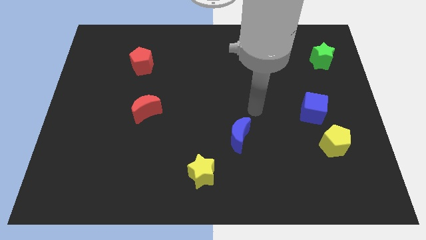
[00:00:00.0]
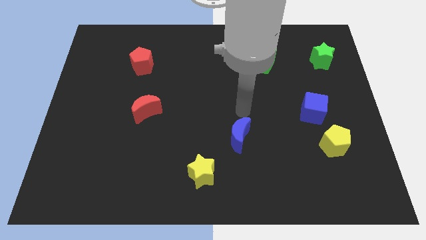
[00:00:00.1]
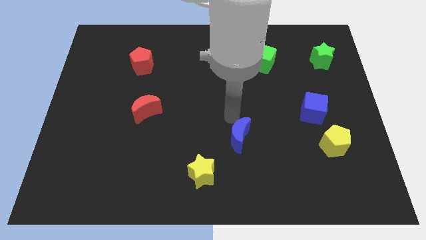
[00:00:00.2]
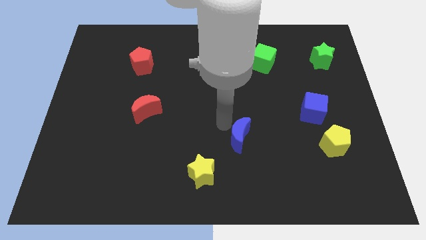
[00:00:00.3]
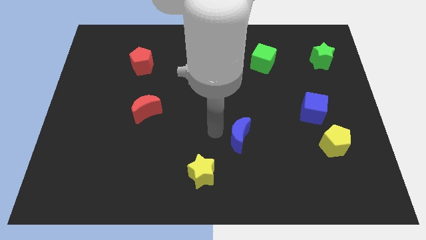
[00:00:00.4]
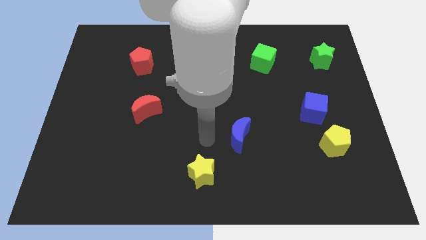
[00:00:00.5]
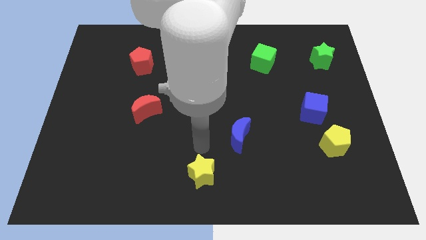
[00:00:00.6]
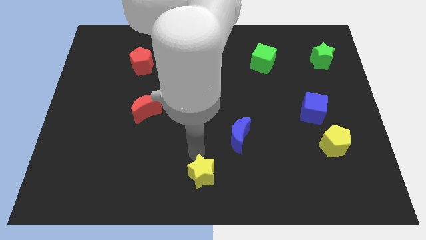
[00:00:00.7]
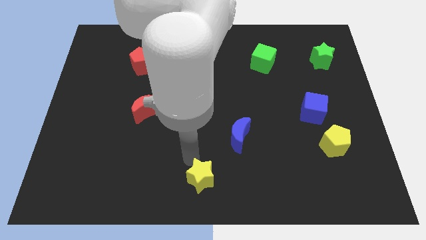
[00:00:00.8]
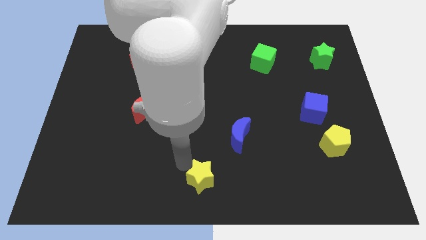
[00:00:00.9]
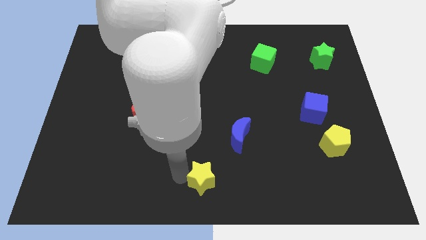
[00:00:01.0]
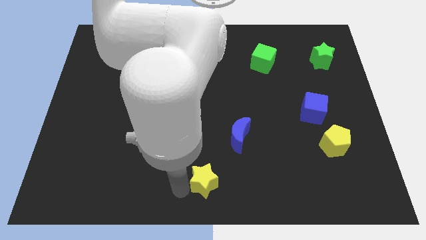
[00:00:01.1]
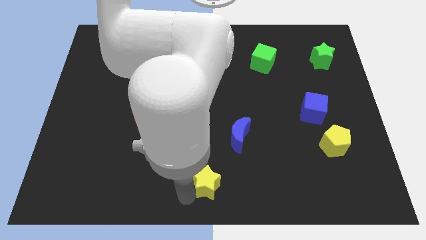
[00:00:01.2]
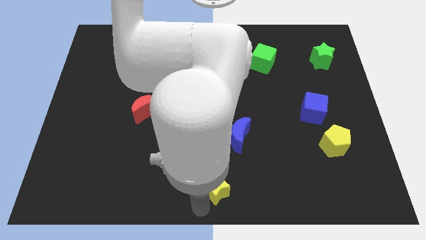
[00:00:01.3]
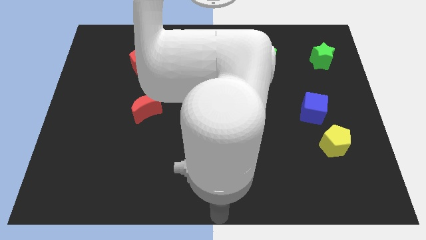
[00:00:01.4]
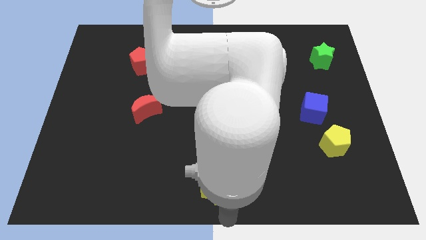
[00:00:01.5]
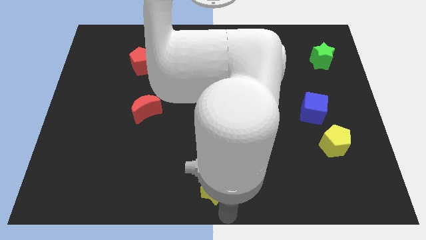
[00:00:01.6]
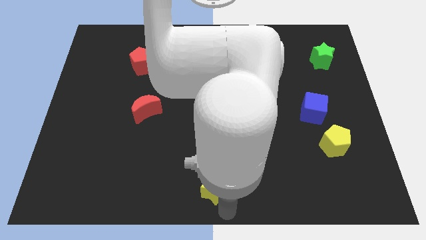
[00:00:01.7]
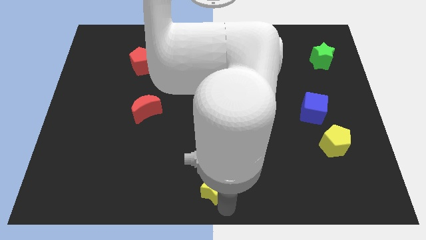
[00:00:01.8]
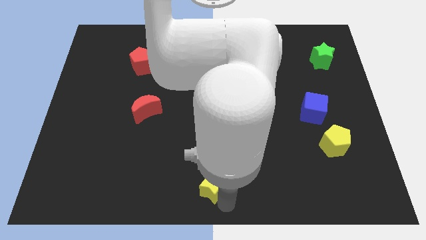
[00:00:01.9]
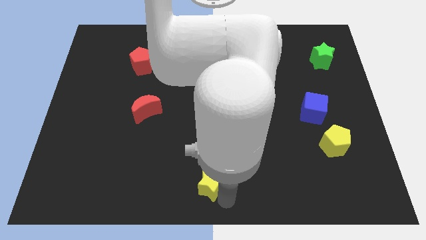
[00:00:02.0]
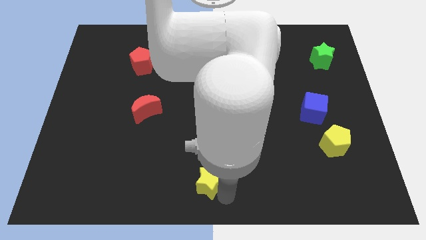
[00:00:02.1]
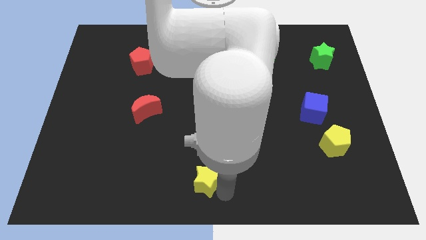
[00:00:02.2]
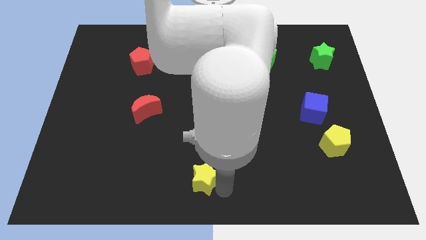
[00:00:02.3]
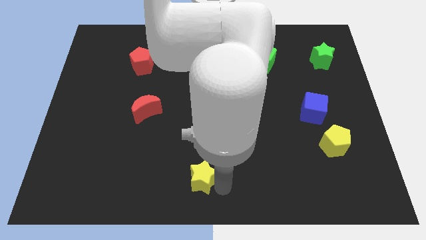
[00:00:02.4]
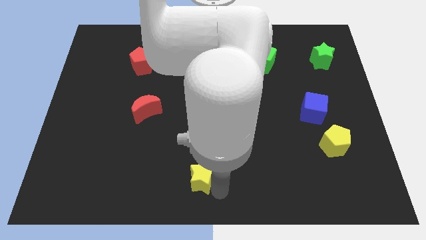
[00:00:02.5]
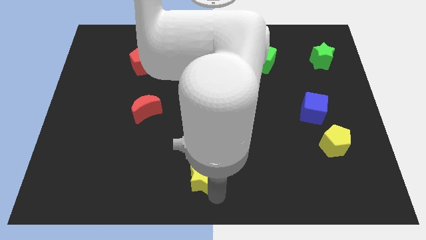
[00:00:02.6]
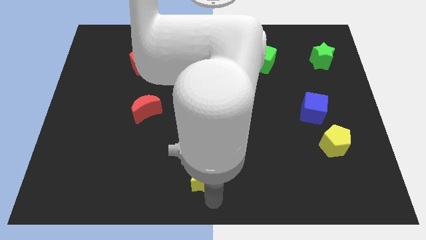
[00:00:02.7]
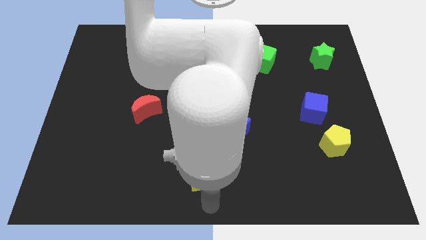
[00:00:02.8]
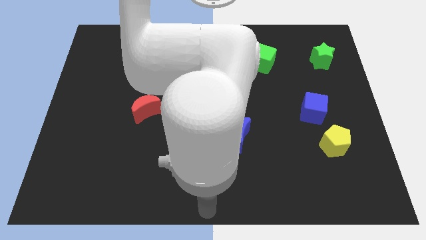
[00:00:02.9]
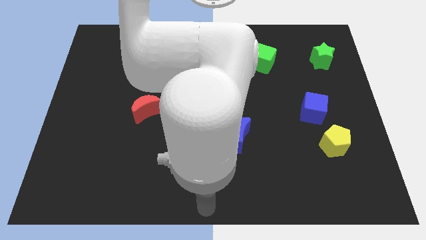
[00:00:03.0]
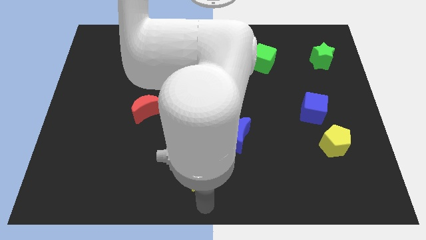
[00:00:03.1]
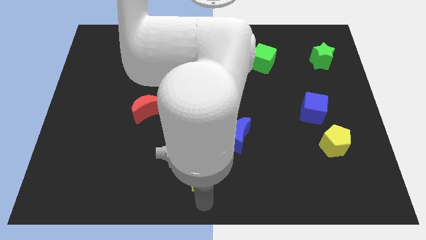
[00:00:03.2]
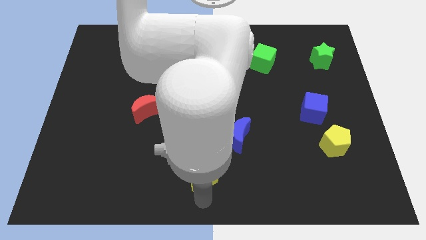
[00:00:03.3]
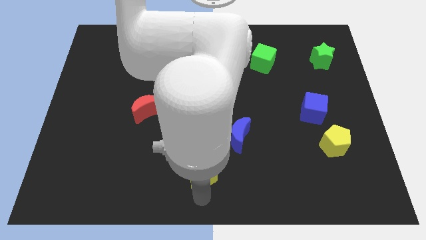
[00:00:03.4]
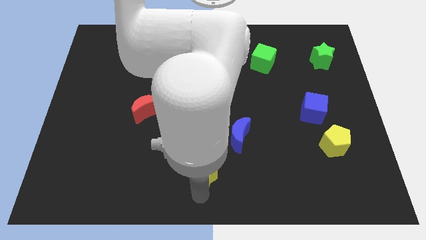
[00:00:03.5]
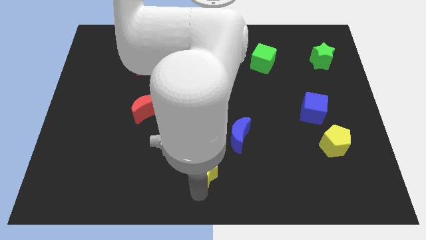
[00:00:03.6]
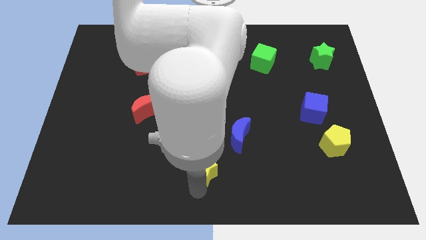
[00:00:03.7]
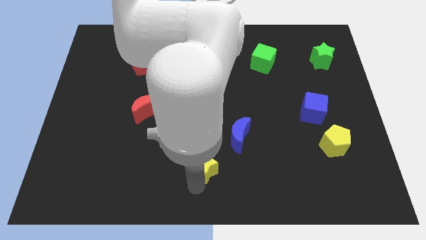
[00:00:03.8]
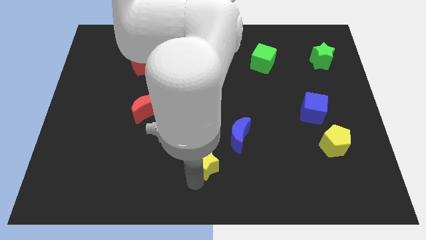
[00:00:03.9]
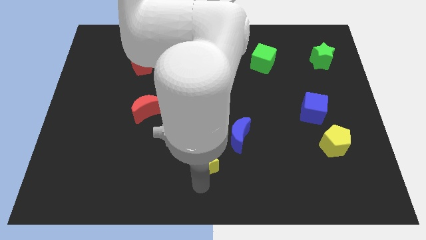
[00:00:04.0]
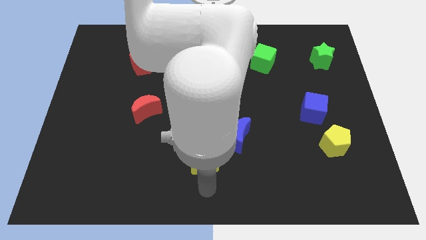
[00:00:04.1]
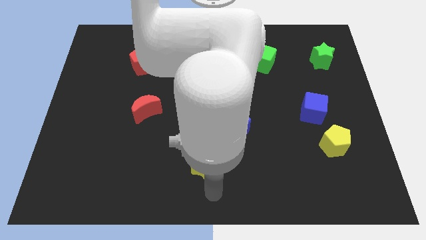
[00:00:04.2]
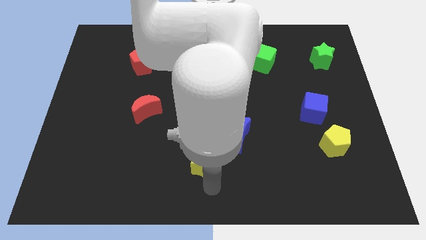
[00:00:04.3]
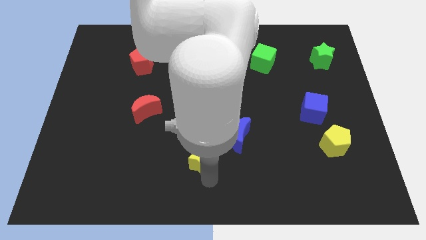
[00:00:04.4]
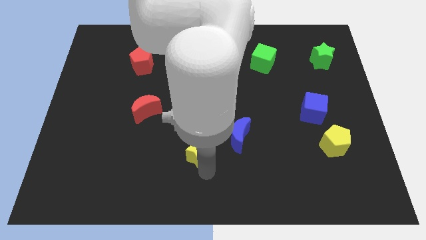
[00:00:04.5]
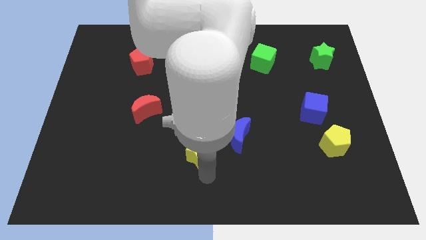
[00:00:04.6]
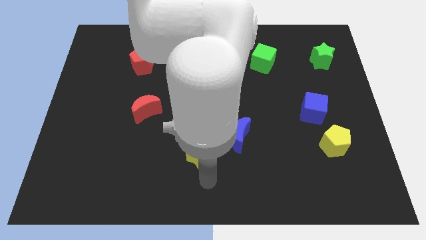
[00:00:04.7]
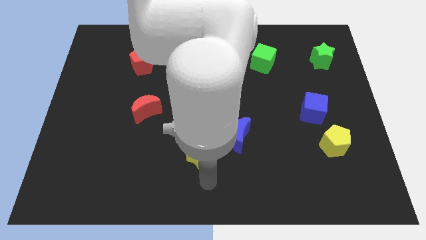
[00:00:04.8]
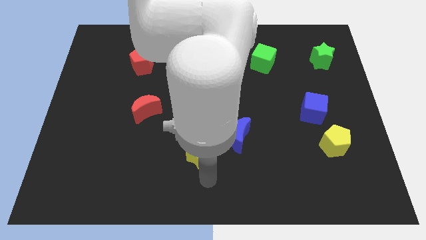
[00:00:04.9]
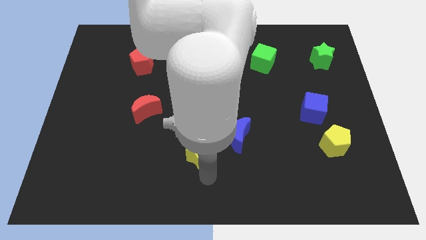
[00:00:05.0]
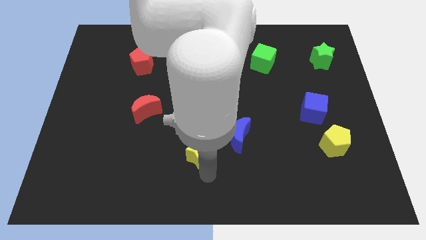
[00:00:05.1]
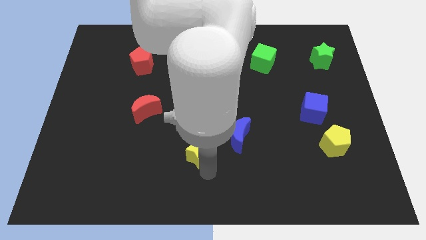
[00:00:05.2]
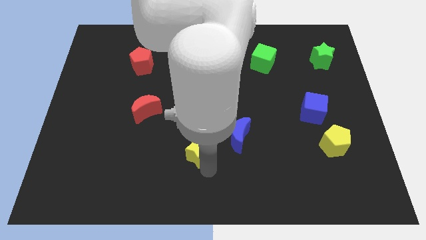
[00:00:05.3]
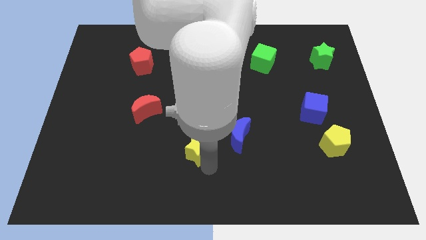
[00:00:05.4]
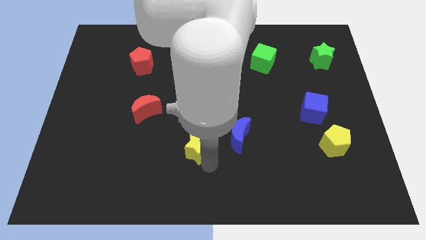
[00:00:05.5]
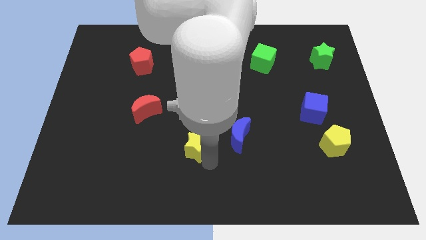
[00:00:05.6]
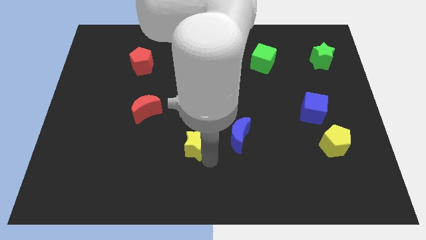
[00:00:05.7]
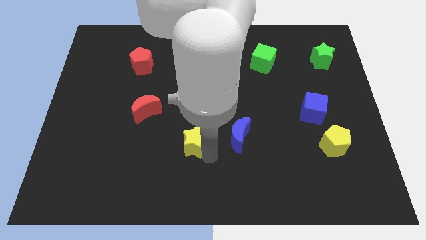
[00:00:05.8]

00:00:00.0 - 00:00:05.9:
slide the yellow star up a little bit

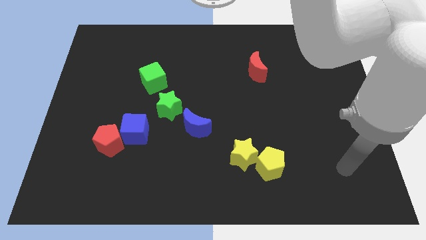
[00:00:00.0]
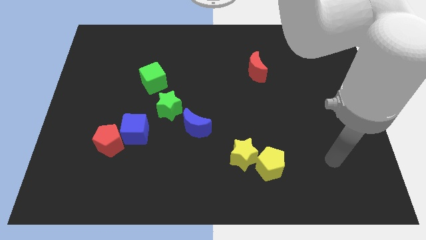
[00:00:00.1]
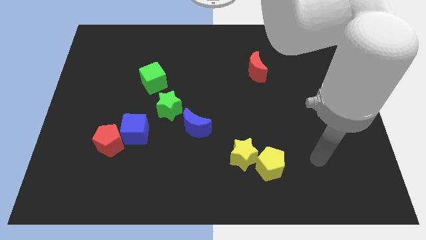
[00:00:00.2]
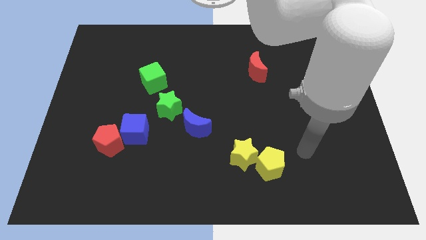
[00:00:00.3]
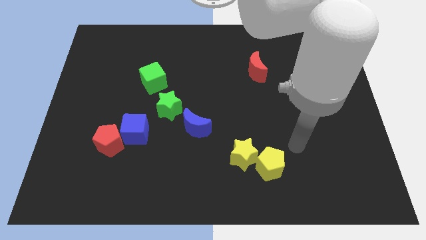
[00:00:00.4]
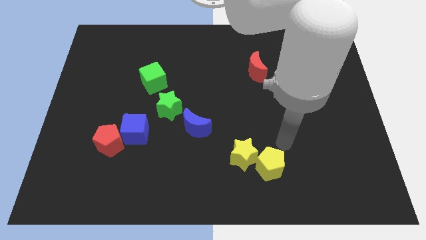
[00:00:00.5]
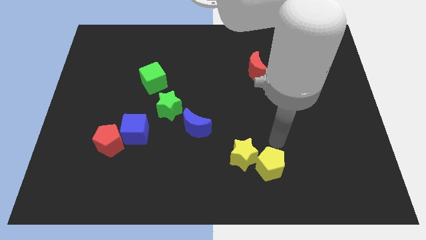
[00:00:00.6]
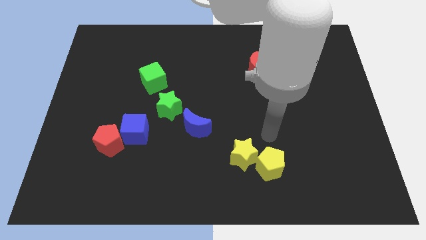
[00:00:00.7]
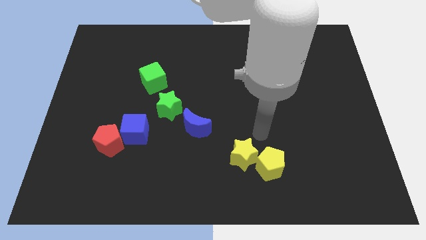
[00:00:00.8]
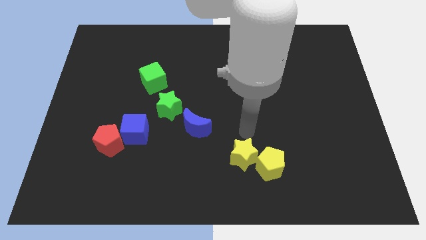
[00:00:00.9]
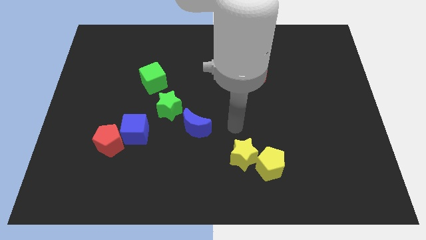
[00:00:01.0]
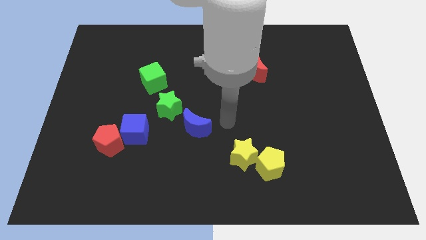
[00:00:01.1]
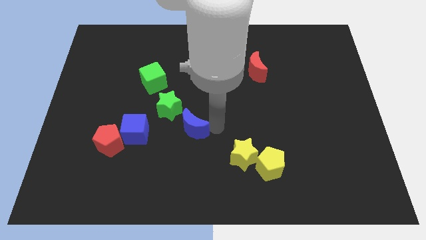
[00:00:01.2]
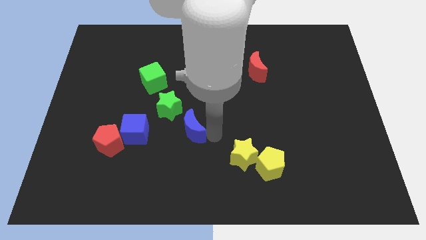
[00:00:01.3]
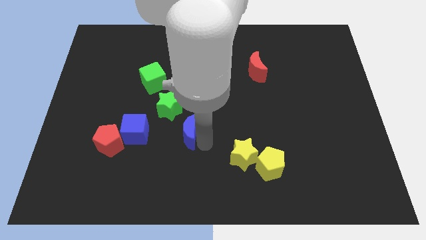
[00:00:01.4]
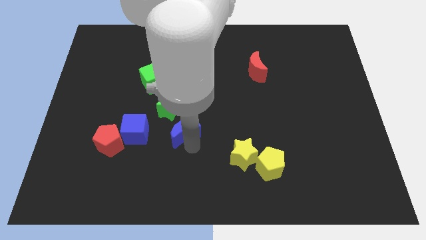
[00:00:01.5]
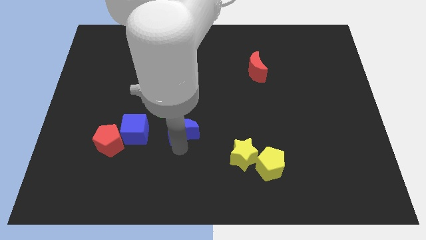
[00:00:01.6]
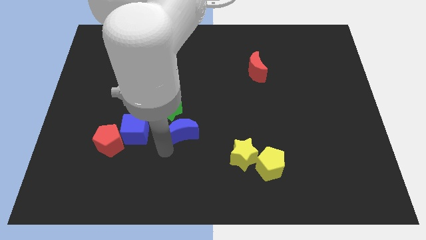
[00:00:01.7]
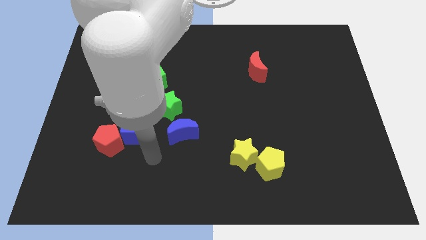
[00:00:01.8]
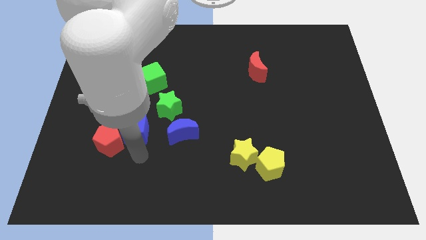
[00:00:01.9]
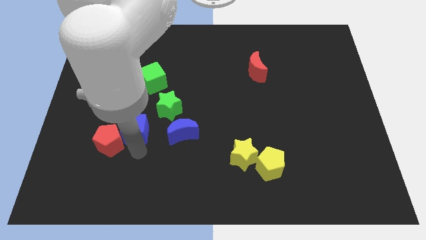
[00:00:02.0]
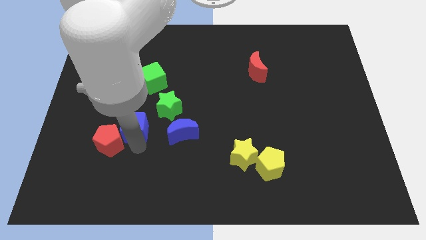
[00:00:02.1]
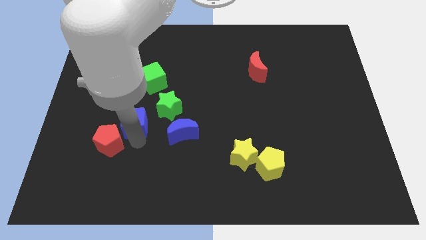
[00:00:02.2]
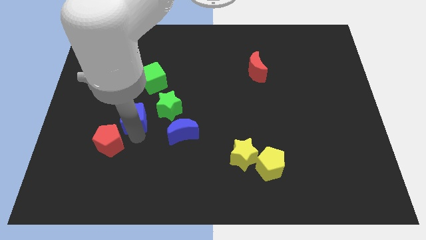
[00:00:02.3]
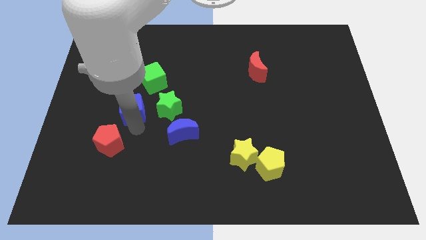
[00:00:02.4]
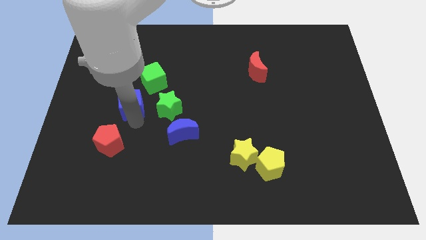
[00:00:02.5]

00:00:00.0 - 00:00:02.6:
push the blue cube upwards a little
